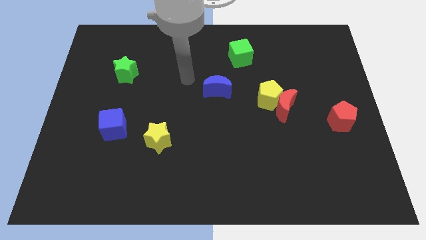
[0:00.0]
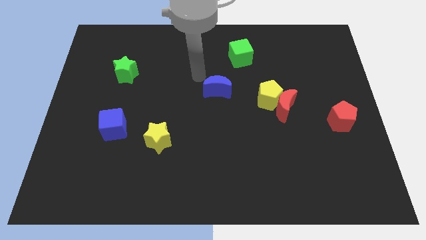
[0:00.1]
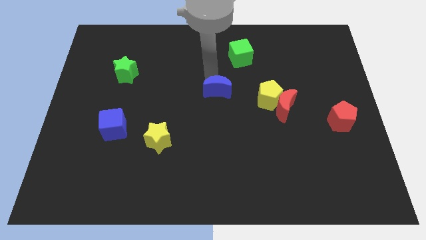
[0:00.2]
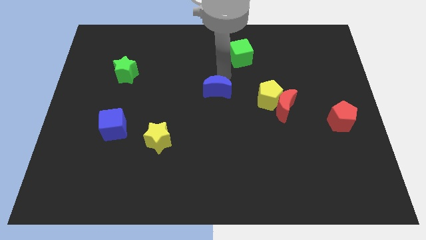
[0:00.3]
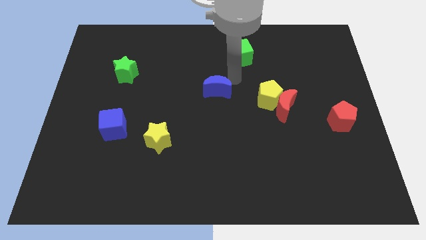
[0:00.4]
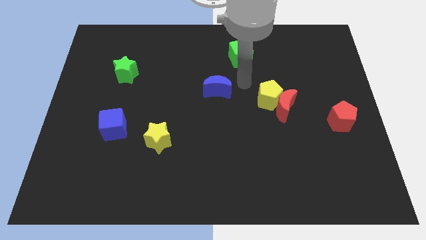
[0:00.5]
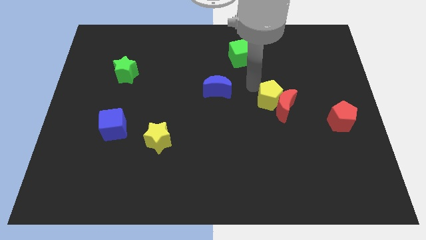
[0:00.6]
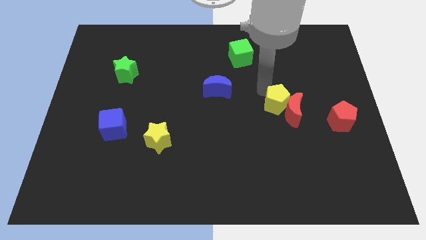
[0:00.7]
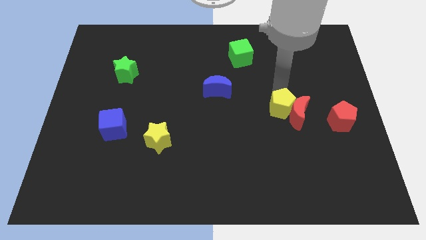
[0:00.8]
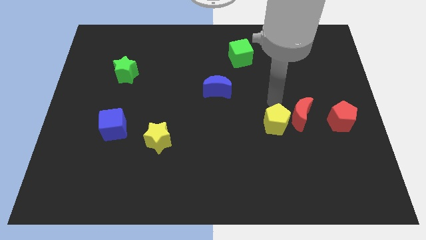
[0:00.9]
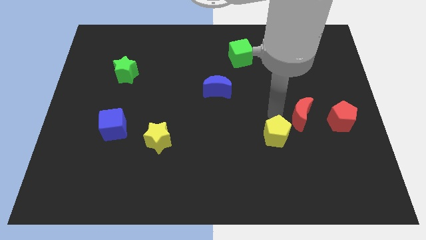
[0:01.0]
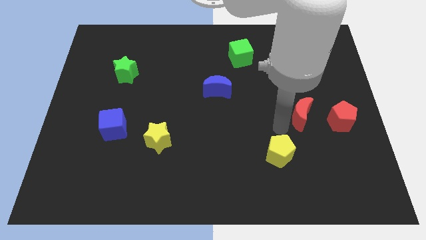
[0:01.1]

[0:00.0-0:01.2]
move the red moon away from the yellow pentagon

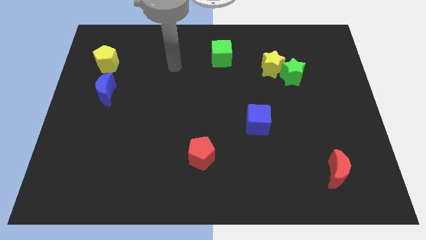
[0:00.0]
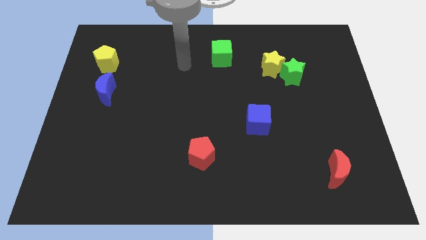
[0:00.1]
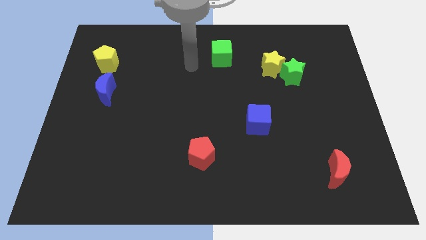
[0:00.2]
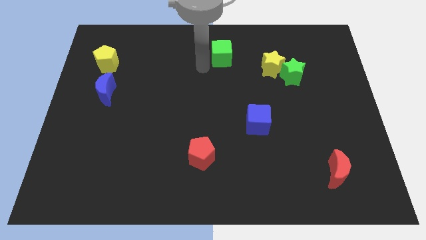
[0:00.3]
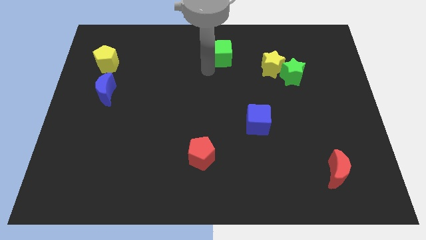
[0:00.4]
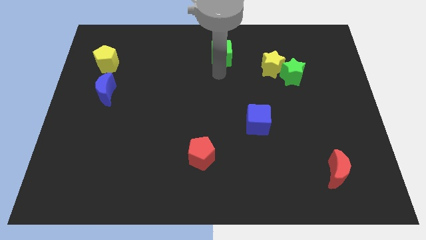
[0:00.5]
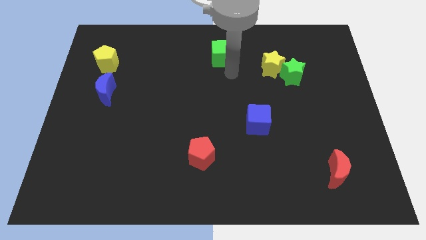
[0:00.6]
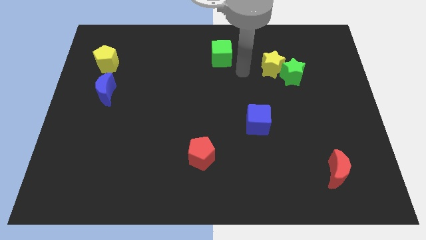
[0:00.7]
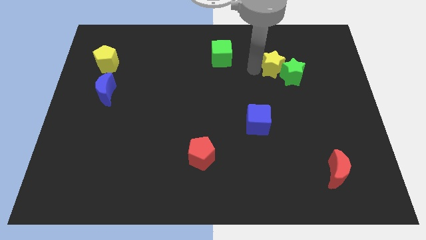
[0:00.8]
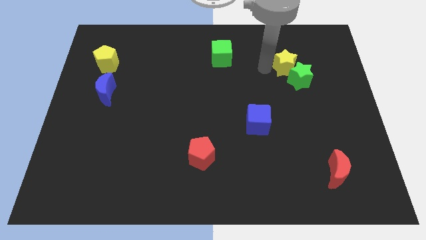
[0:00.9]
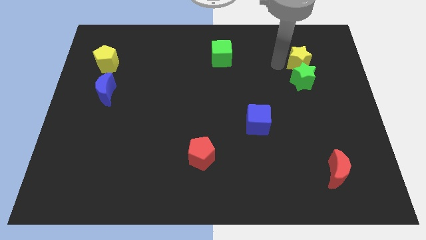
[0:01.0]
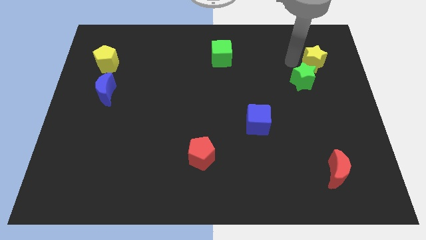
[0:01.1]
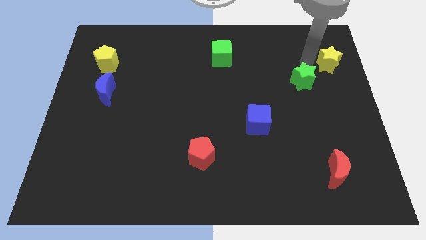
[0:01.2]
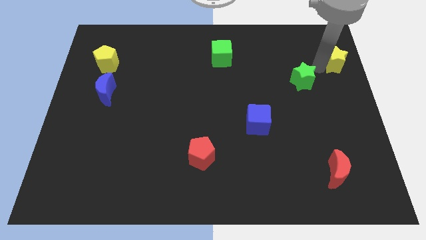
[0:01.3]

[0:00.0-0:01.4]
pull the green star apart from the yellow star

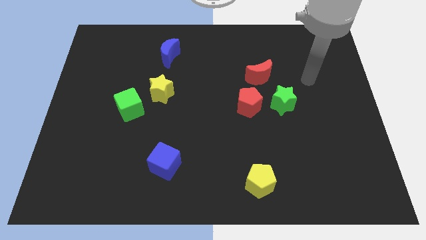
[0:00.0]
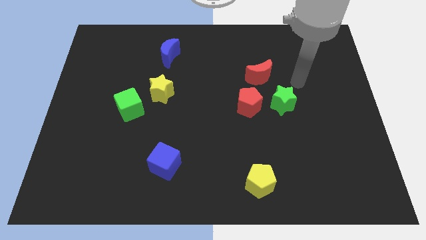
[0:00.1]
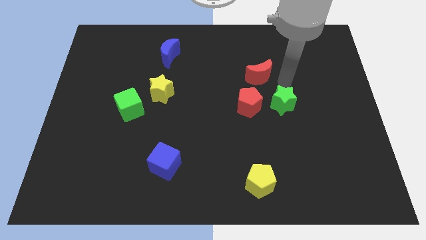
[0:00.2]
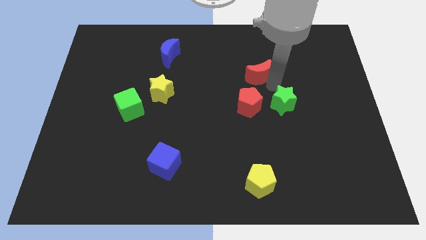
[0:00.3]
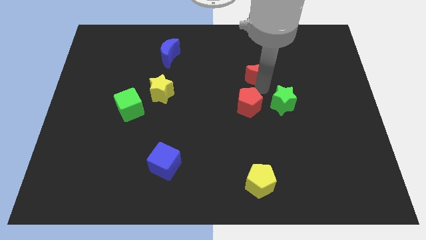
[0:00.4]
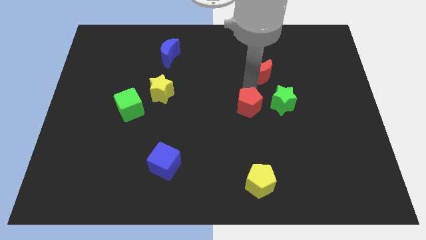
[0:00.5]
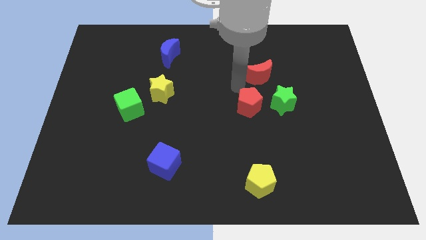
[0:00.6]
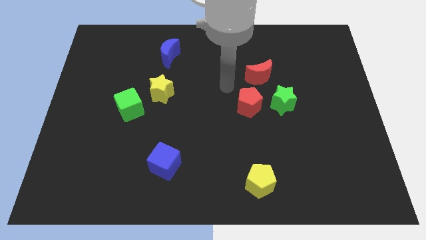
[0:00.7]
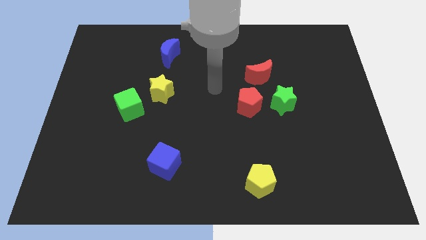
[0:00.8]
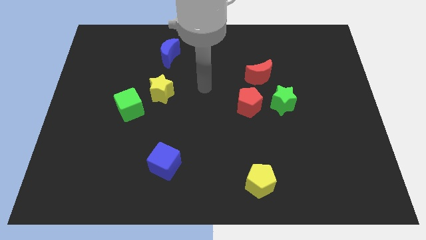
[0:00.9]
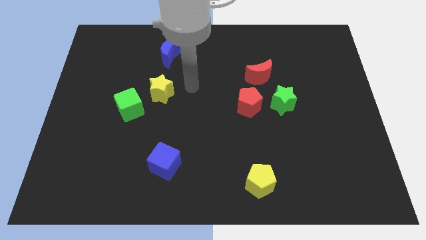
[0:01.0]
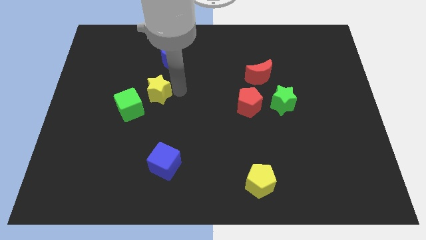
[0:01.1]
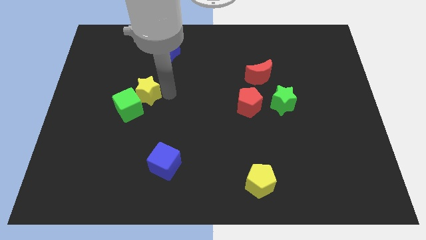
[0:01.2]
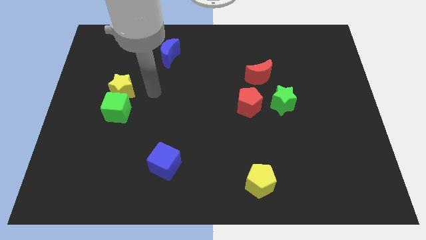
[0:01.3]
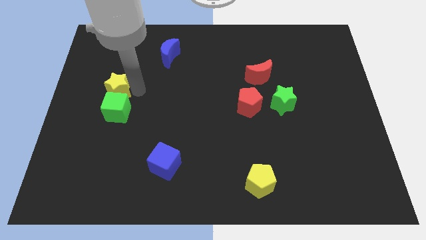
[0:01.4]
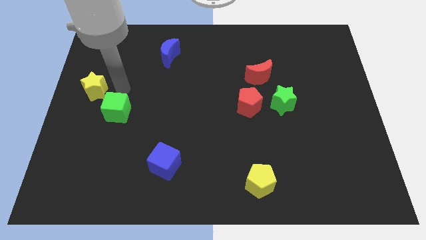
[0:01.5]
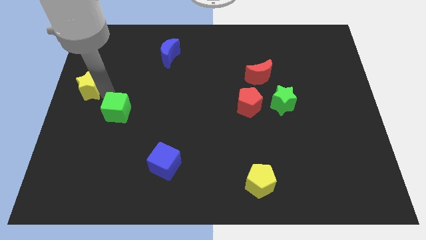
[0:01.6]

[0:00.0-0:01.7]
move the green cube away from the yellow star

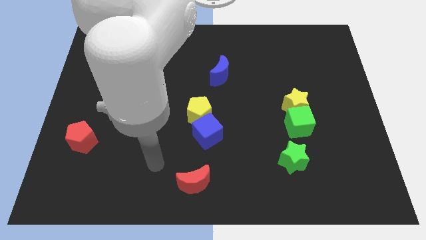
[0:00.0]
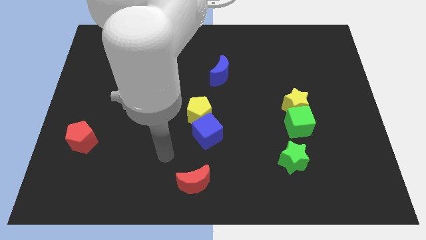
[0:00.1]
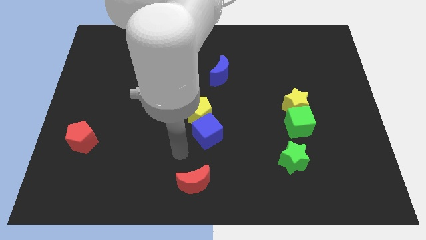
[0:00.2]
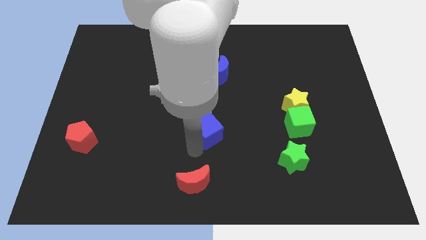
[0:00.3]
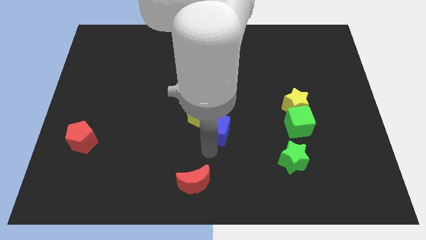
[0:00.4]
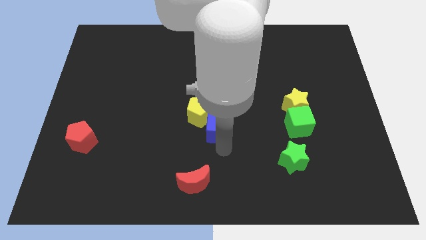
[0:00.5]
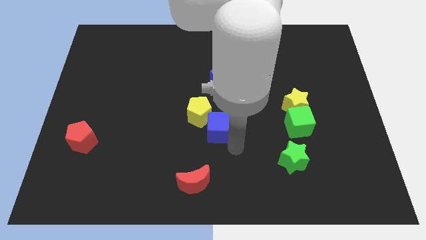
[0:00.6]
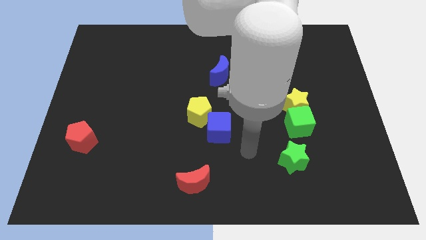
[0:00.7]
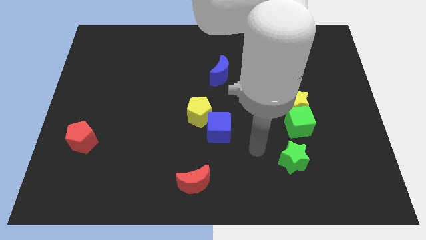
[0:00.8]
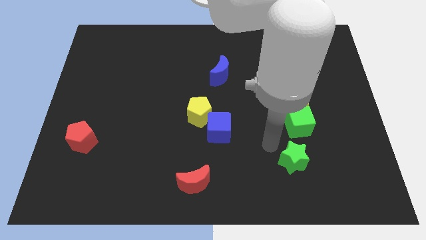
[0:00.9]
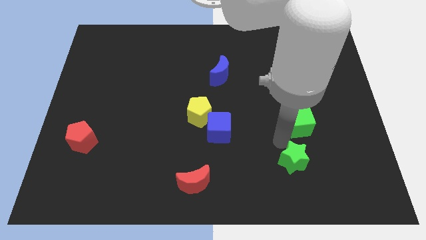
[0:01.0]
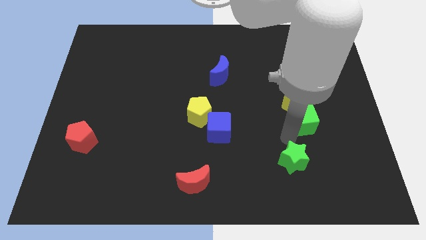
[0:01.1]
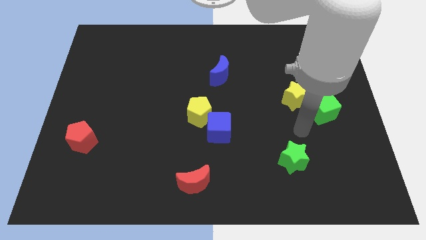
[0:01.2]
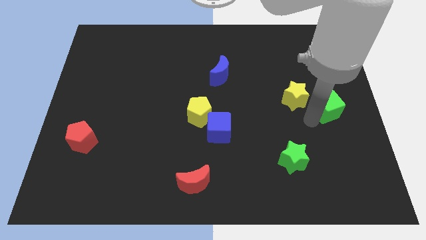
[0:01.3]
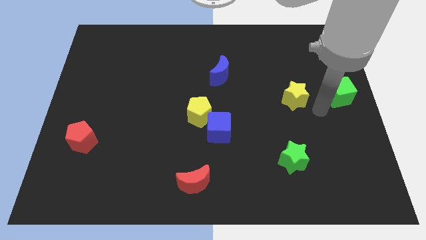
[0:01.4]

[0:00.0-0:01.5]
move the yellow star away from the green cube

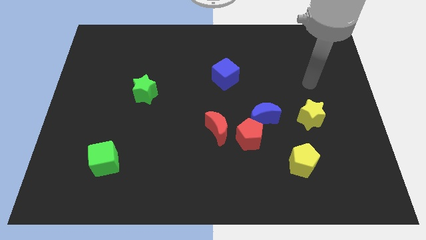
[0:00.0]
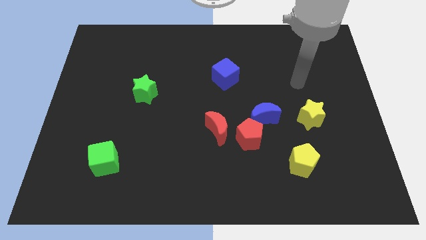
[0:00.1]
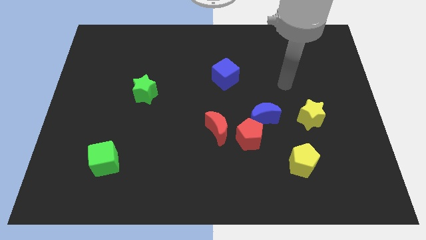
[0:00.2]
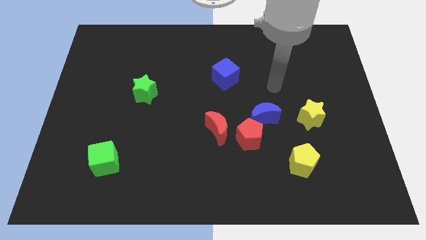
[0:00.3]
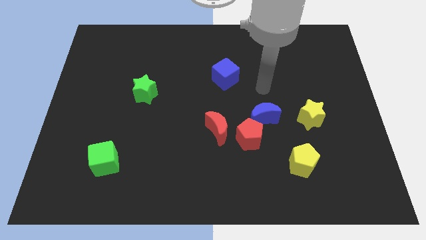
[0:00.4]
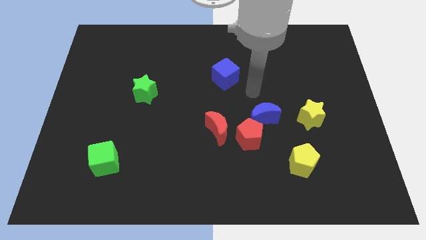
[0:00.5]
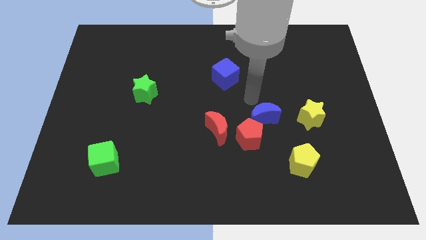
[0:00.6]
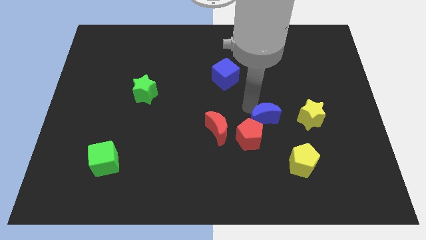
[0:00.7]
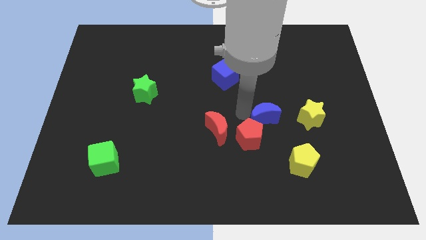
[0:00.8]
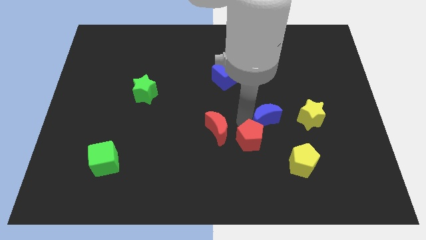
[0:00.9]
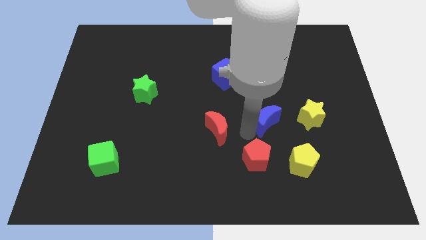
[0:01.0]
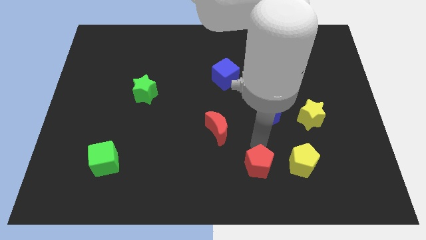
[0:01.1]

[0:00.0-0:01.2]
pull the blue moon apart from the red pentagon

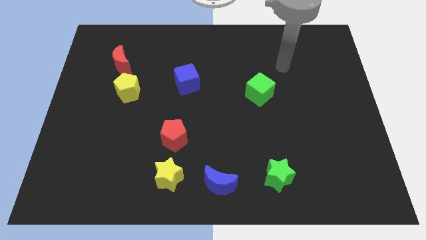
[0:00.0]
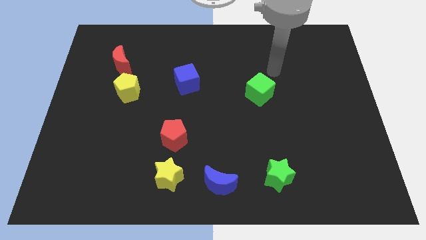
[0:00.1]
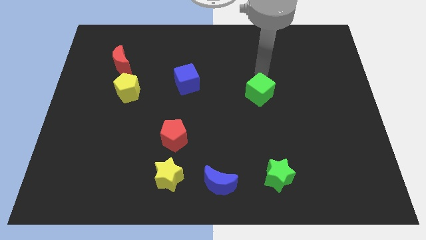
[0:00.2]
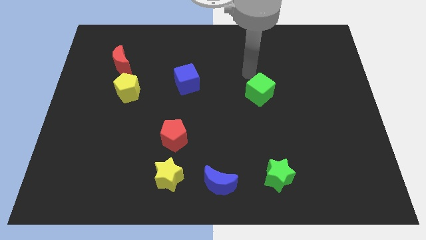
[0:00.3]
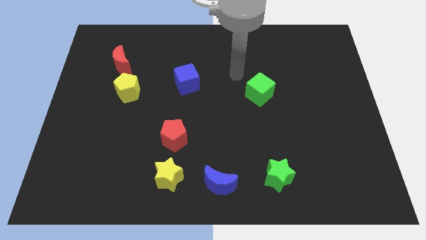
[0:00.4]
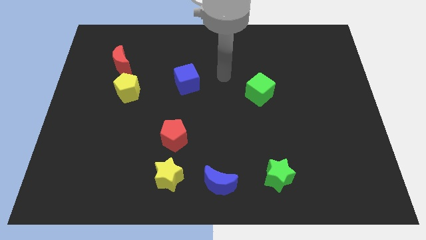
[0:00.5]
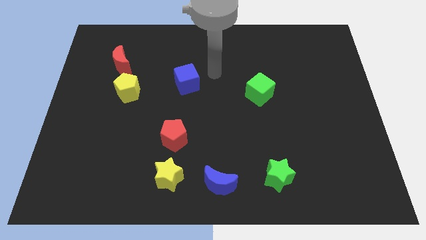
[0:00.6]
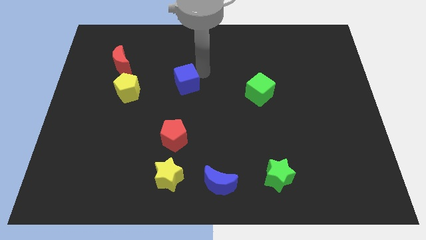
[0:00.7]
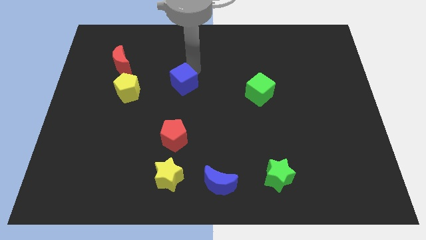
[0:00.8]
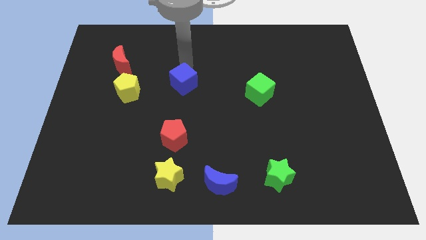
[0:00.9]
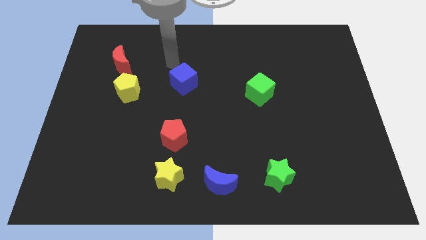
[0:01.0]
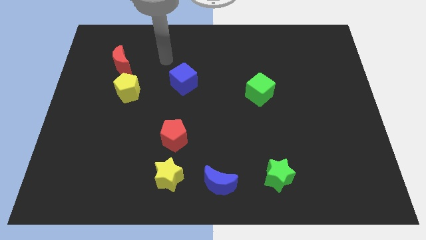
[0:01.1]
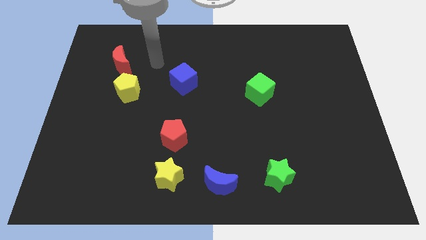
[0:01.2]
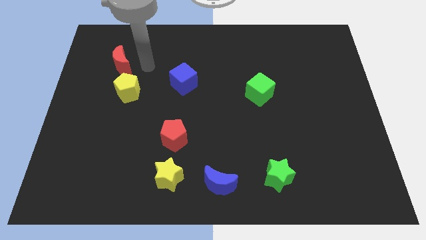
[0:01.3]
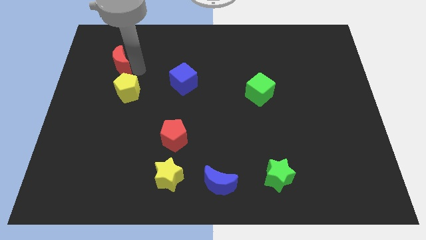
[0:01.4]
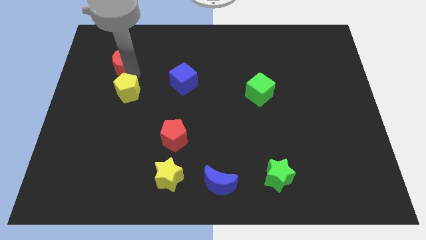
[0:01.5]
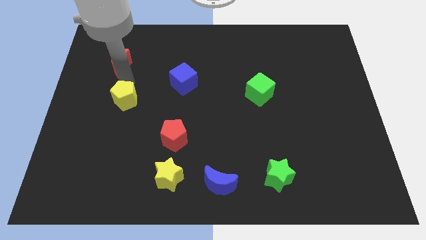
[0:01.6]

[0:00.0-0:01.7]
separate the red moon from the yellow pentagon

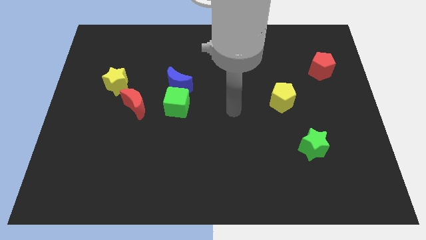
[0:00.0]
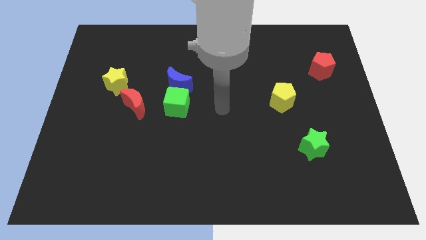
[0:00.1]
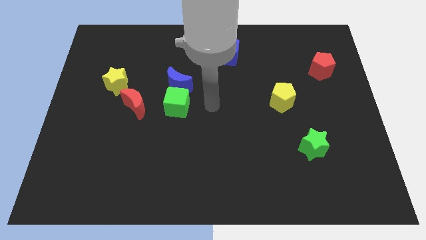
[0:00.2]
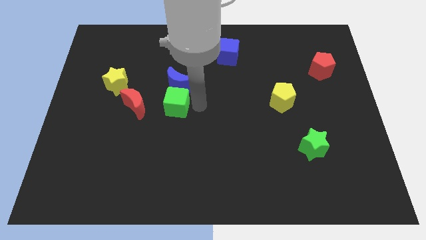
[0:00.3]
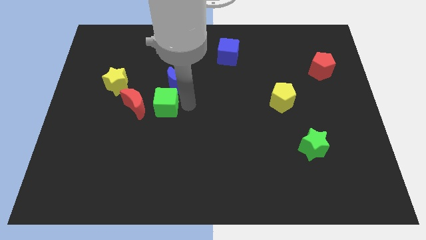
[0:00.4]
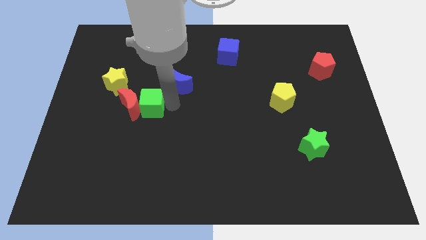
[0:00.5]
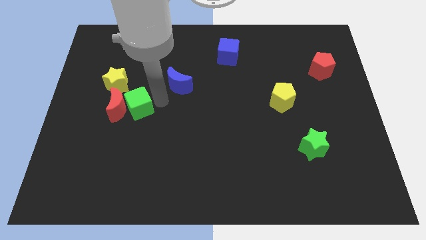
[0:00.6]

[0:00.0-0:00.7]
separate the blue moon from the green cube

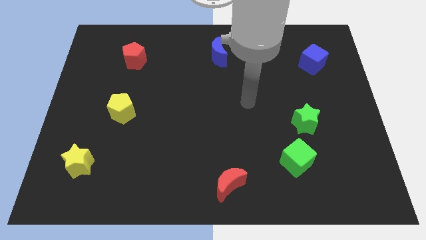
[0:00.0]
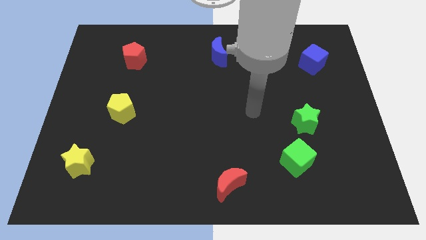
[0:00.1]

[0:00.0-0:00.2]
separate the green cube from the green star
